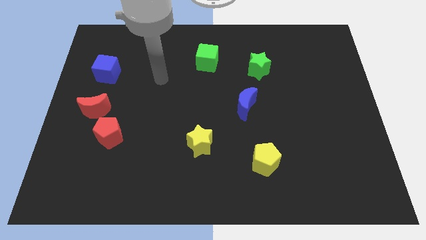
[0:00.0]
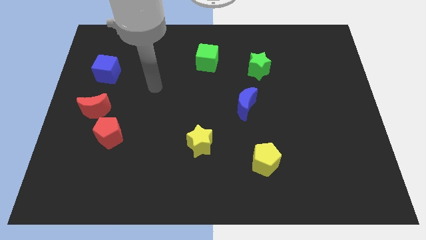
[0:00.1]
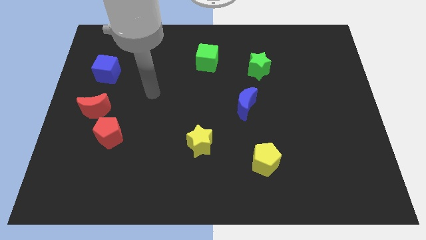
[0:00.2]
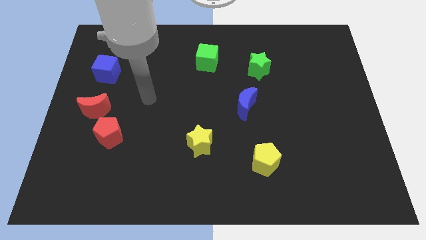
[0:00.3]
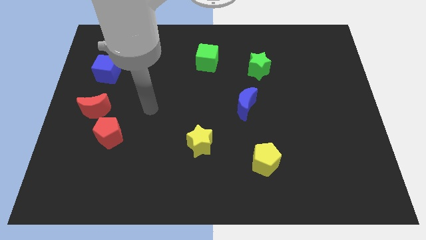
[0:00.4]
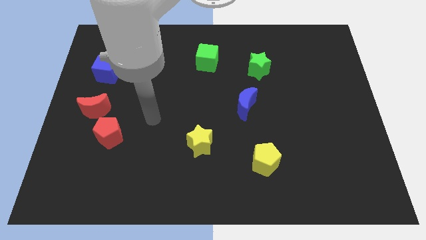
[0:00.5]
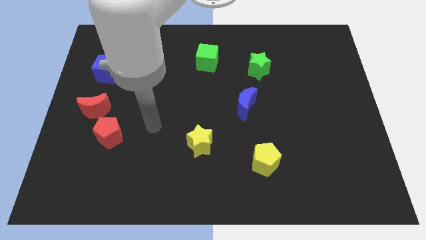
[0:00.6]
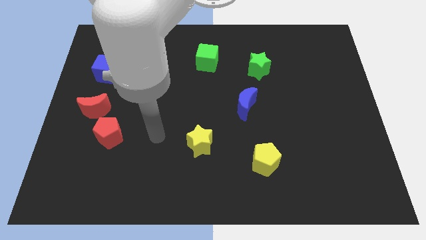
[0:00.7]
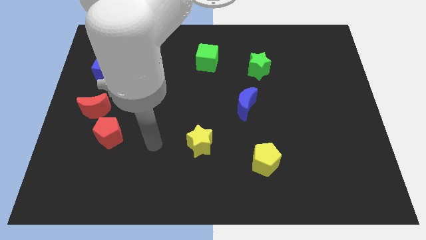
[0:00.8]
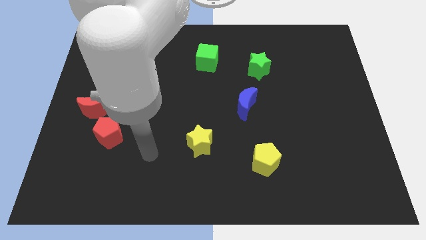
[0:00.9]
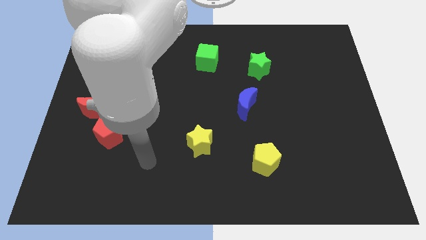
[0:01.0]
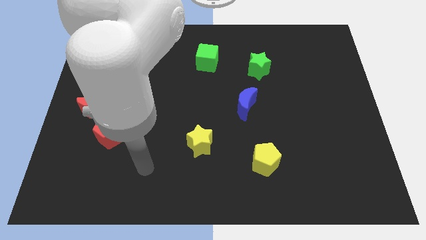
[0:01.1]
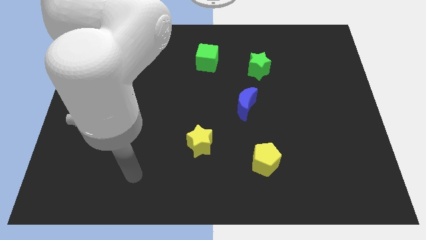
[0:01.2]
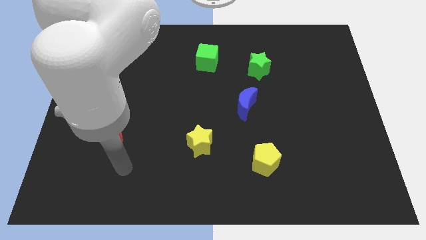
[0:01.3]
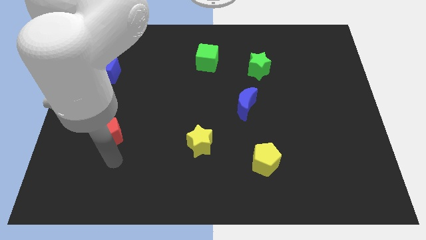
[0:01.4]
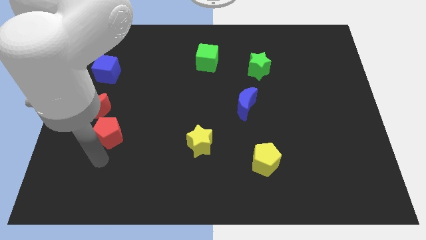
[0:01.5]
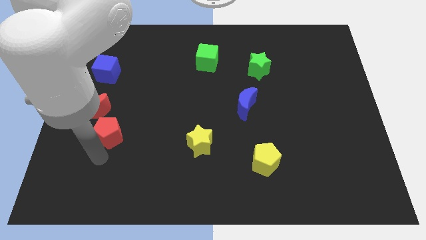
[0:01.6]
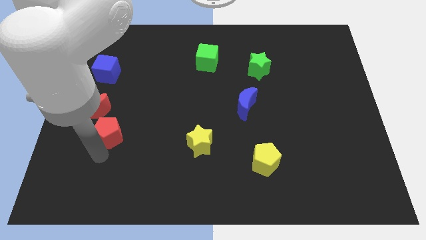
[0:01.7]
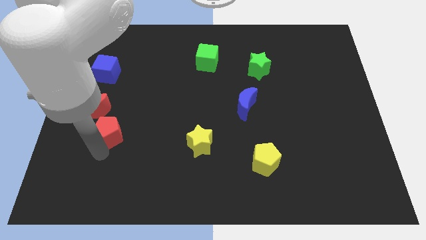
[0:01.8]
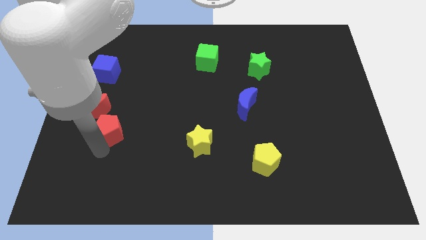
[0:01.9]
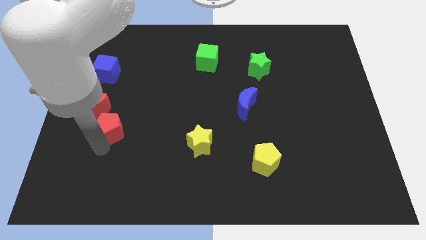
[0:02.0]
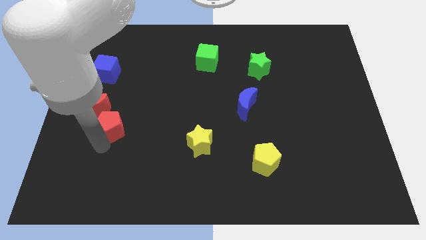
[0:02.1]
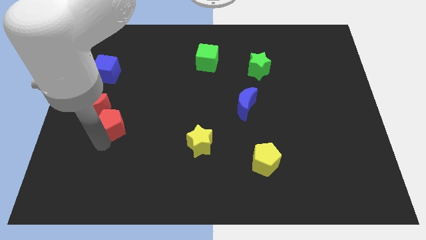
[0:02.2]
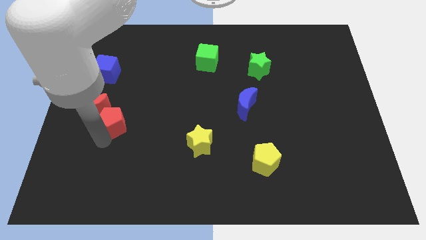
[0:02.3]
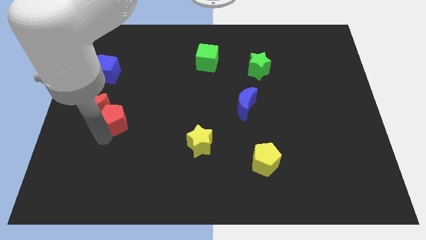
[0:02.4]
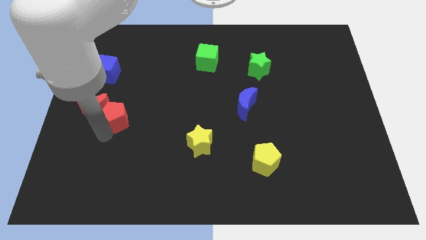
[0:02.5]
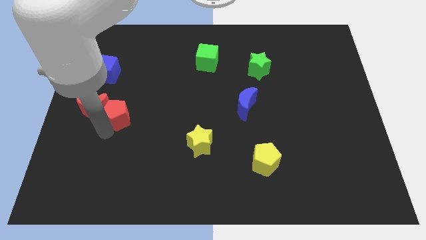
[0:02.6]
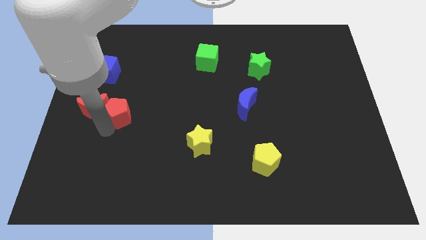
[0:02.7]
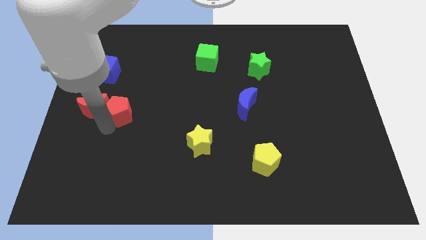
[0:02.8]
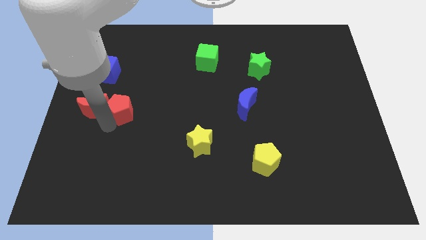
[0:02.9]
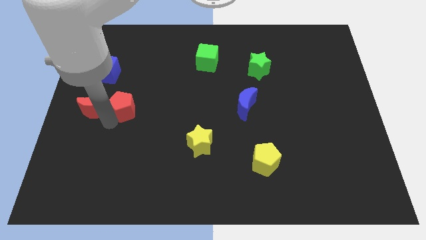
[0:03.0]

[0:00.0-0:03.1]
slide the red pentagon a little upwards

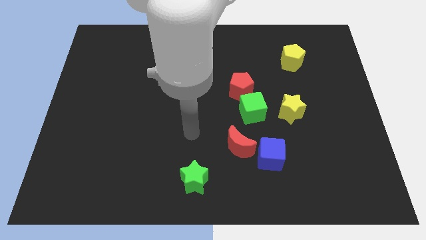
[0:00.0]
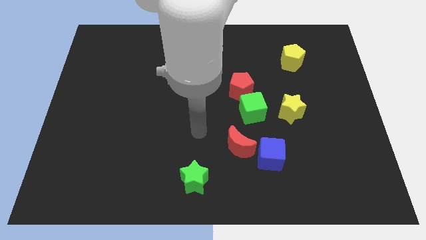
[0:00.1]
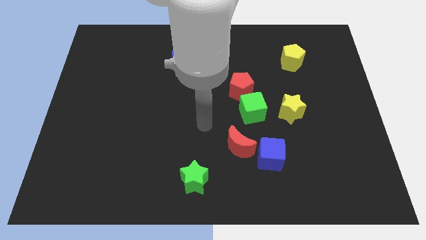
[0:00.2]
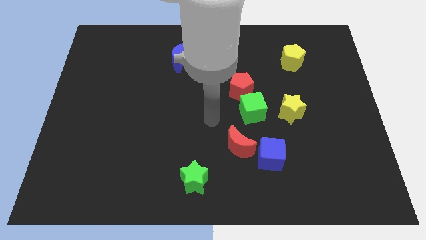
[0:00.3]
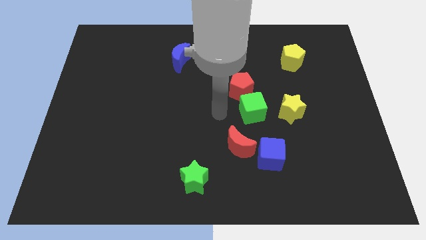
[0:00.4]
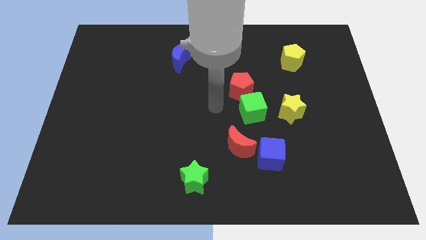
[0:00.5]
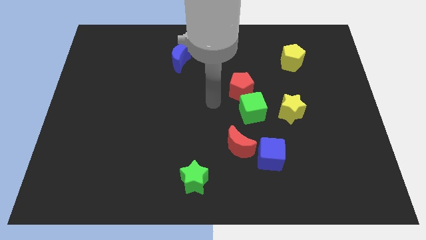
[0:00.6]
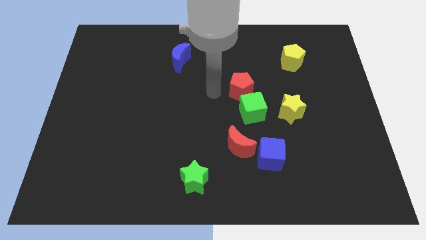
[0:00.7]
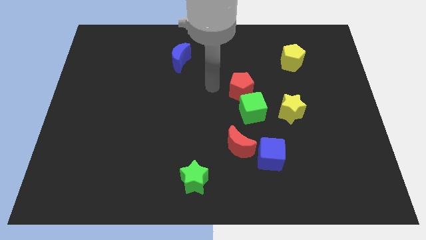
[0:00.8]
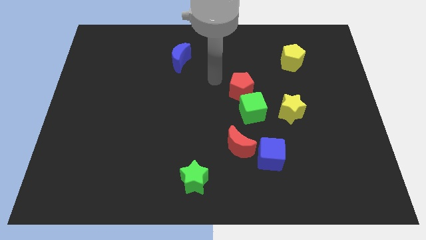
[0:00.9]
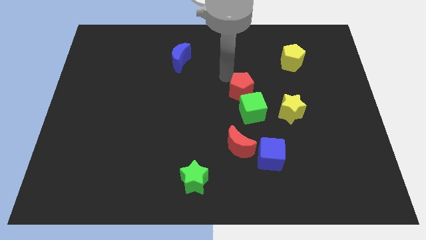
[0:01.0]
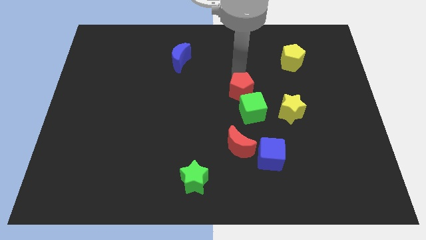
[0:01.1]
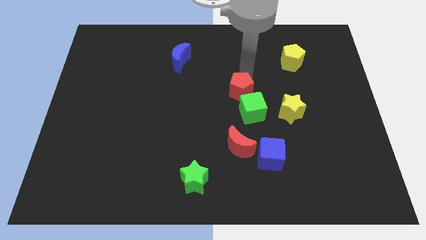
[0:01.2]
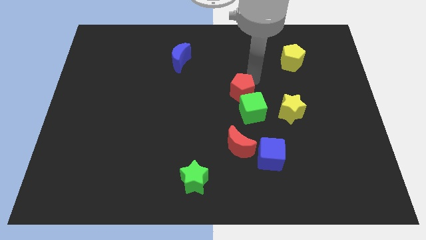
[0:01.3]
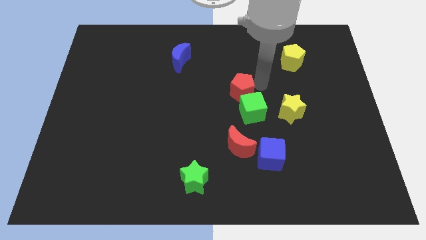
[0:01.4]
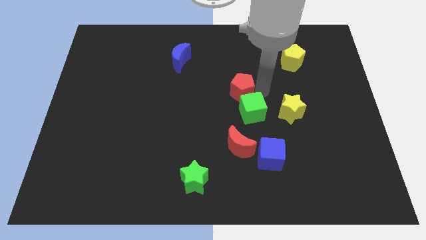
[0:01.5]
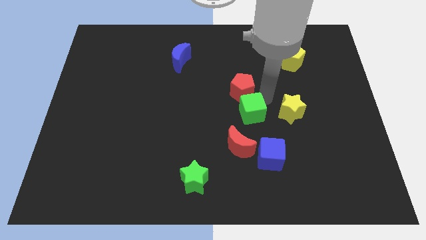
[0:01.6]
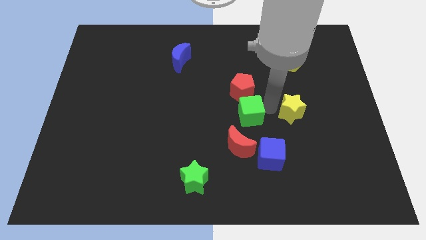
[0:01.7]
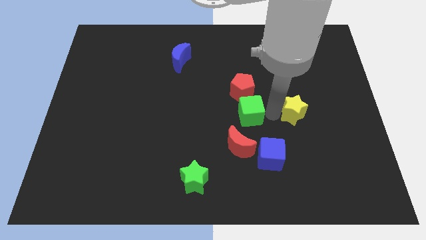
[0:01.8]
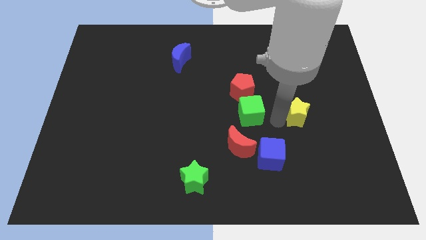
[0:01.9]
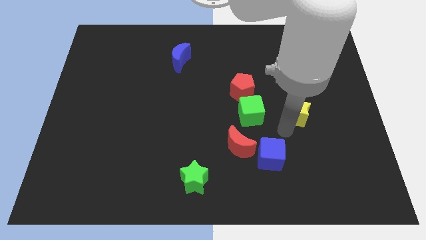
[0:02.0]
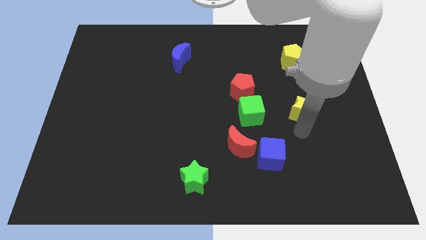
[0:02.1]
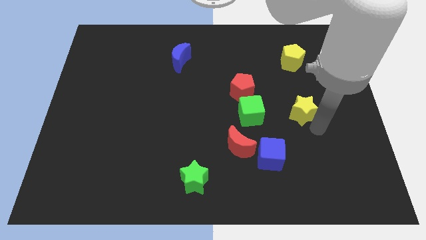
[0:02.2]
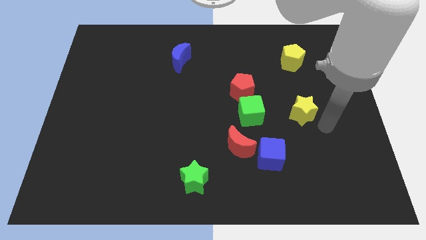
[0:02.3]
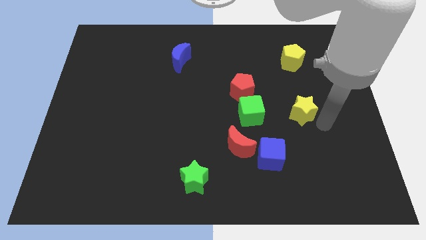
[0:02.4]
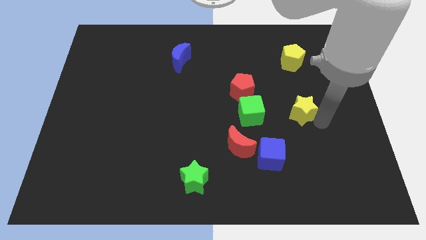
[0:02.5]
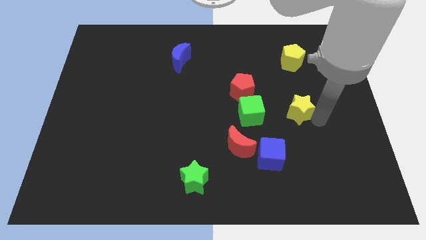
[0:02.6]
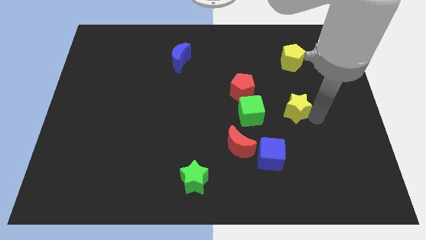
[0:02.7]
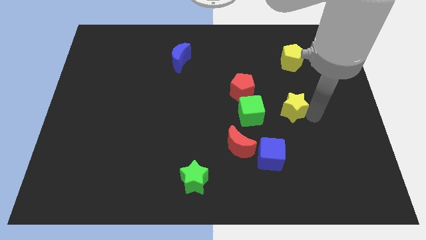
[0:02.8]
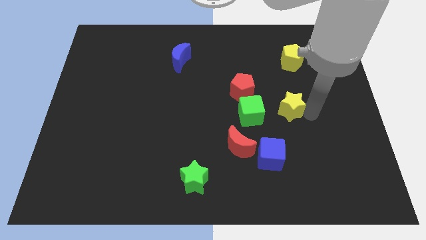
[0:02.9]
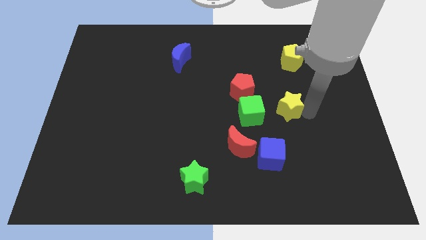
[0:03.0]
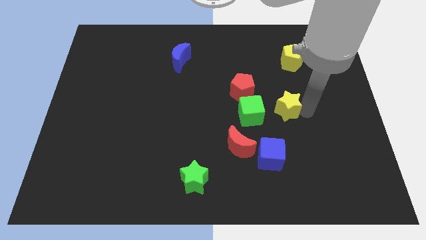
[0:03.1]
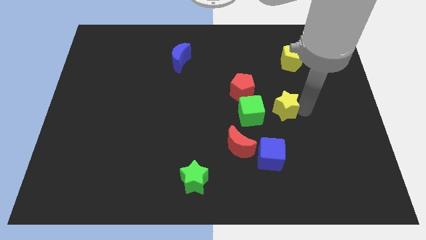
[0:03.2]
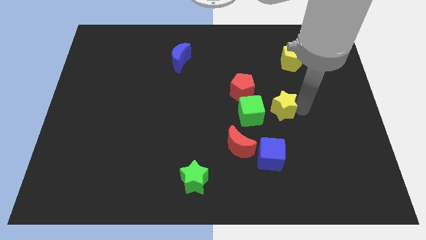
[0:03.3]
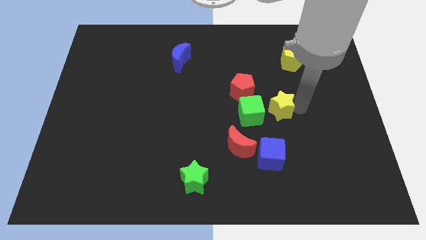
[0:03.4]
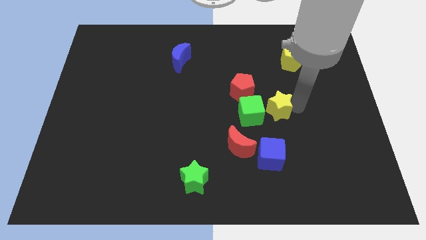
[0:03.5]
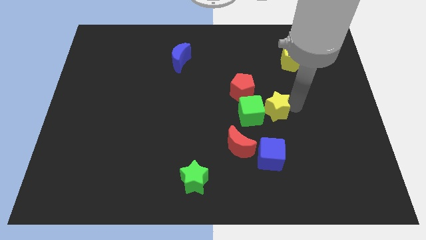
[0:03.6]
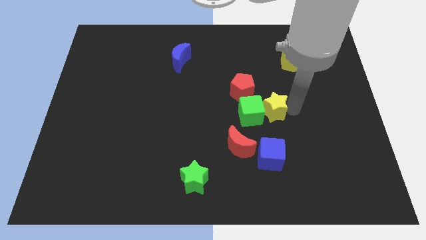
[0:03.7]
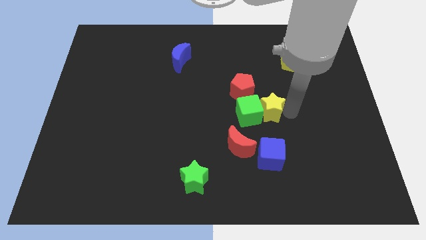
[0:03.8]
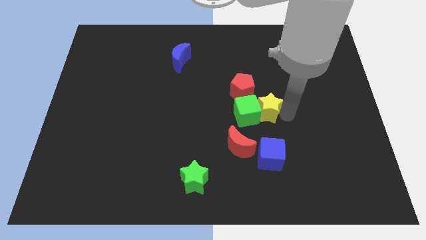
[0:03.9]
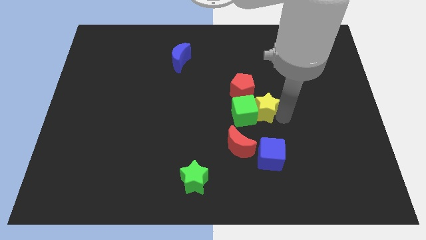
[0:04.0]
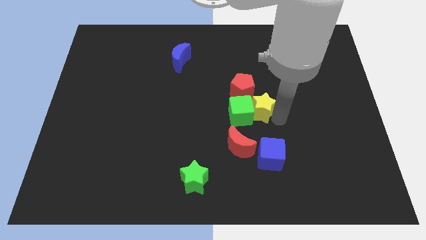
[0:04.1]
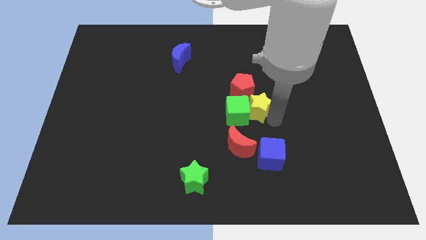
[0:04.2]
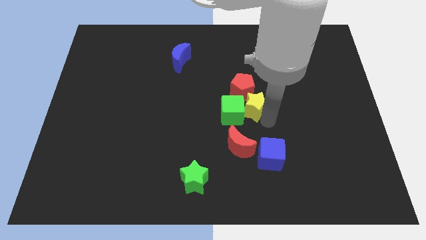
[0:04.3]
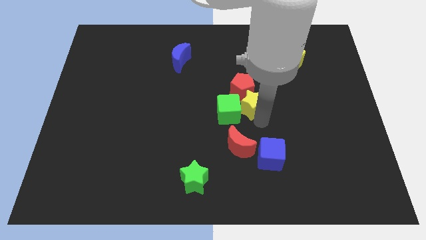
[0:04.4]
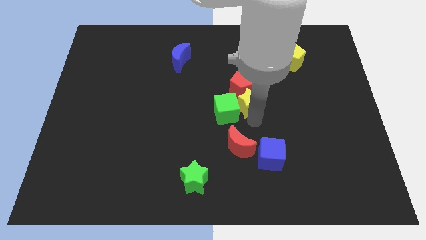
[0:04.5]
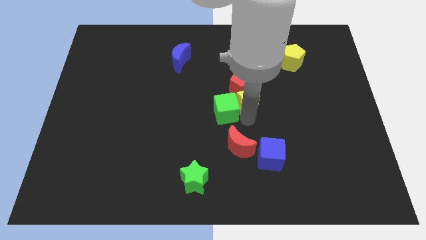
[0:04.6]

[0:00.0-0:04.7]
slide the yellow star a little upwards and left

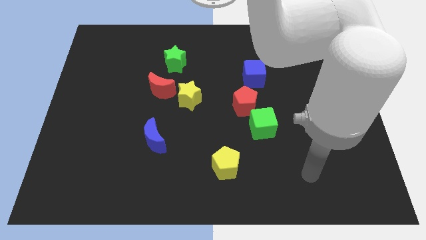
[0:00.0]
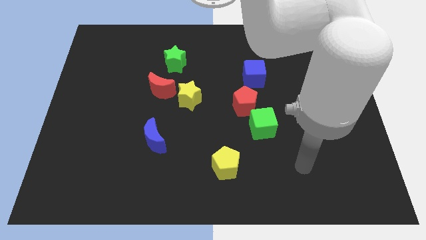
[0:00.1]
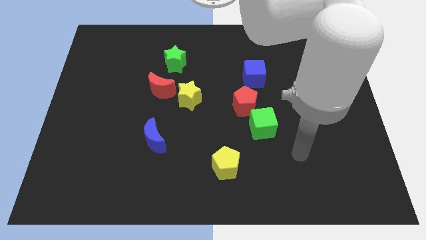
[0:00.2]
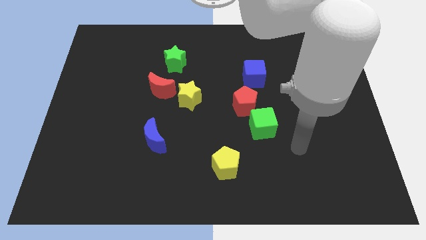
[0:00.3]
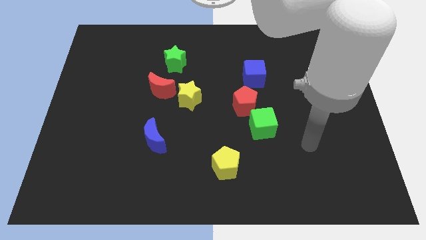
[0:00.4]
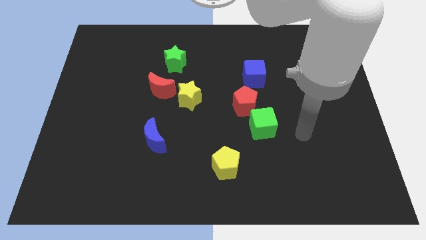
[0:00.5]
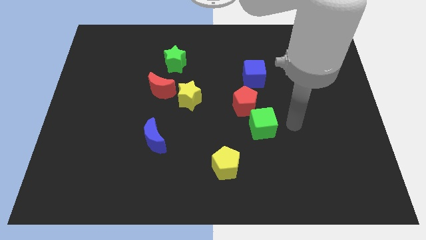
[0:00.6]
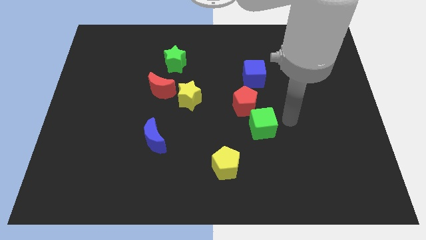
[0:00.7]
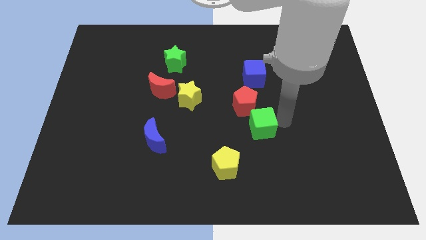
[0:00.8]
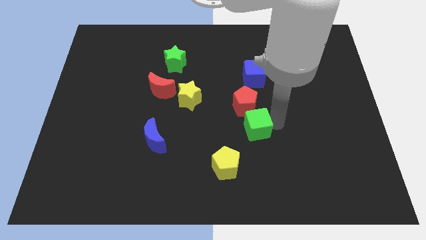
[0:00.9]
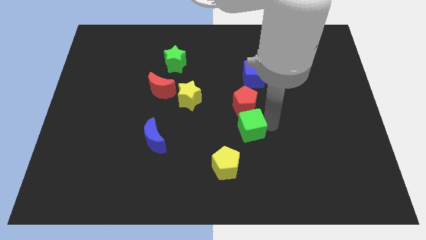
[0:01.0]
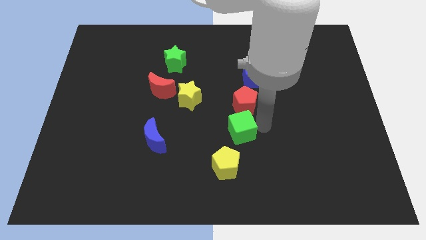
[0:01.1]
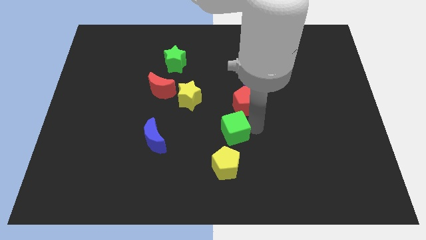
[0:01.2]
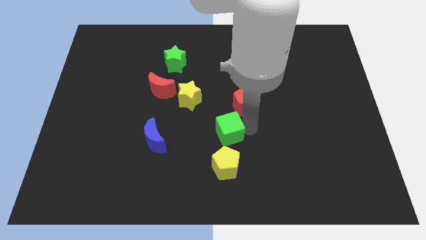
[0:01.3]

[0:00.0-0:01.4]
move the green cube somewhat to the left
